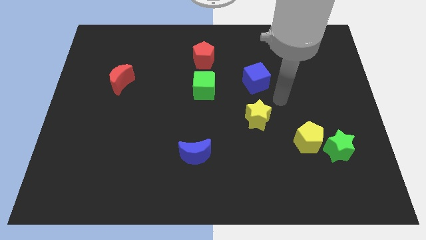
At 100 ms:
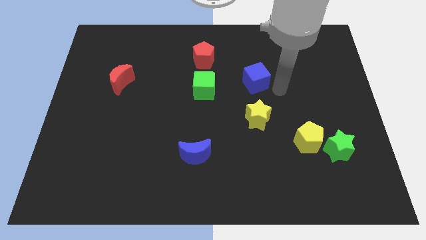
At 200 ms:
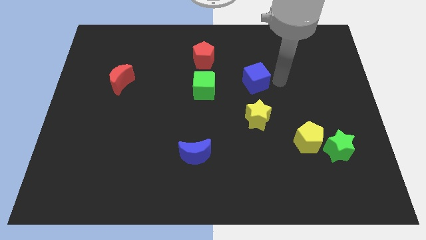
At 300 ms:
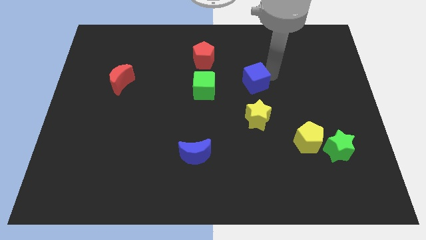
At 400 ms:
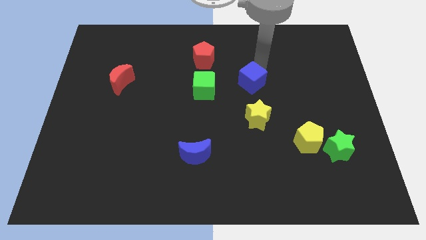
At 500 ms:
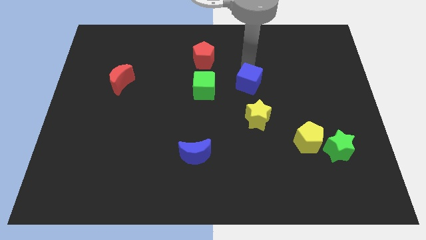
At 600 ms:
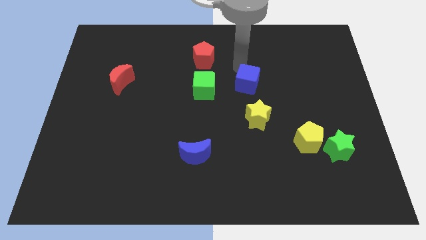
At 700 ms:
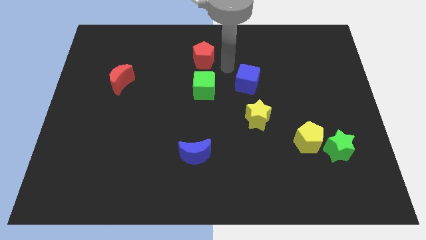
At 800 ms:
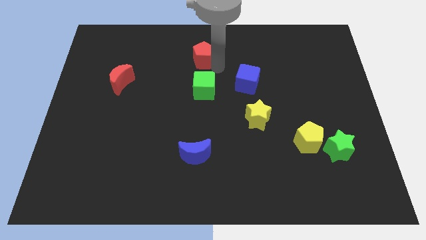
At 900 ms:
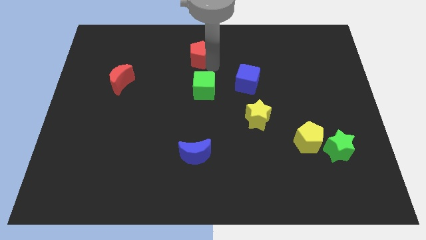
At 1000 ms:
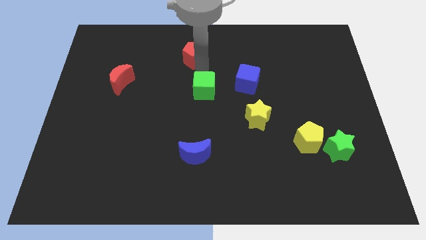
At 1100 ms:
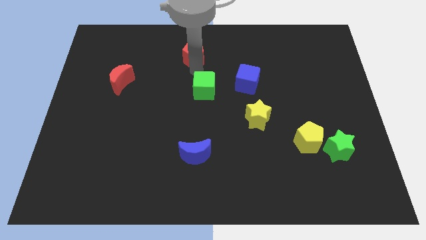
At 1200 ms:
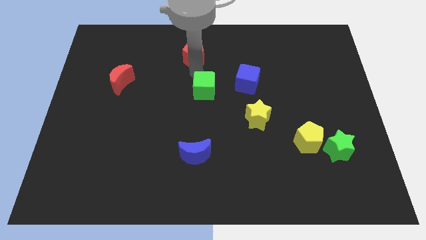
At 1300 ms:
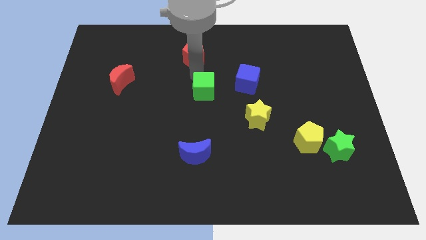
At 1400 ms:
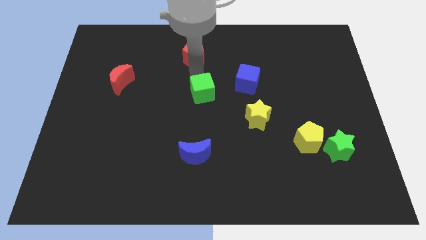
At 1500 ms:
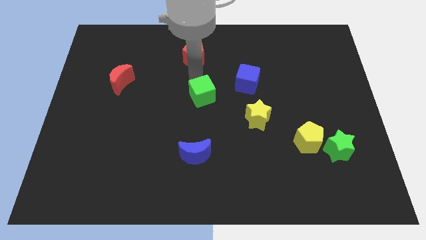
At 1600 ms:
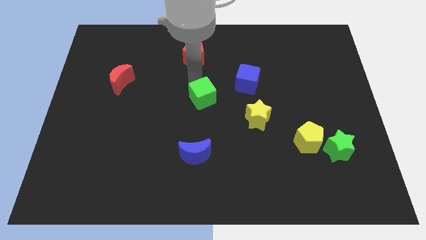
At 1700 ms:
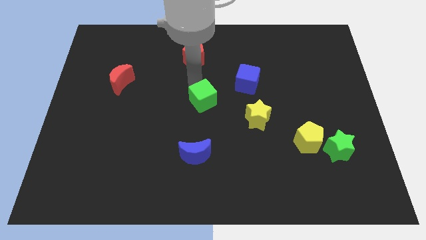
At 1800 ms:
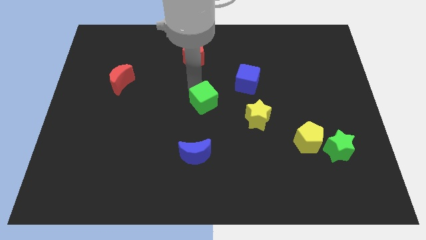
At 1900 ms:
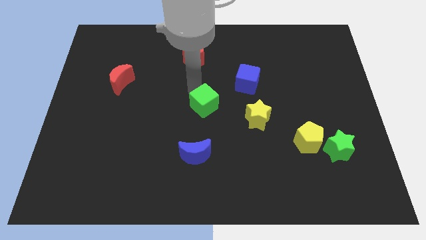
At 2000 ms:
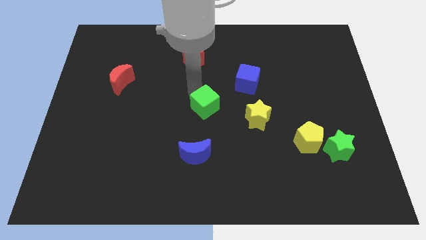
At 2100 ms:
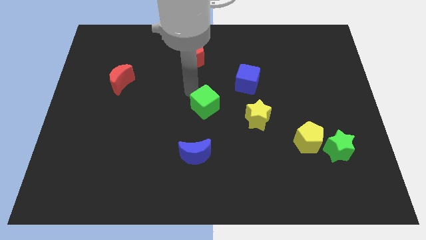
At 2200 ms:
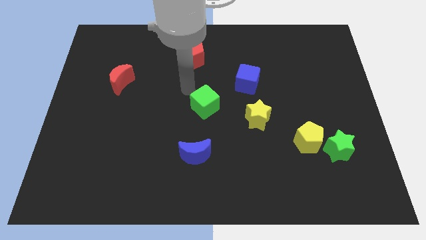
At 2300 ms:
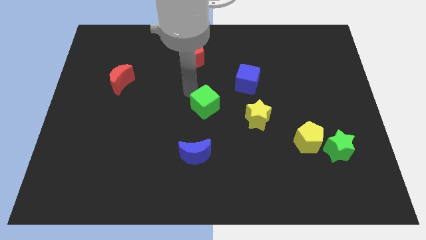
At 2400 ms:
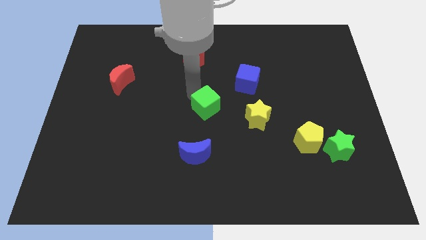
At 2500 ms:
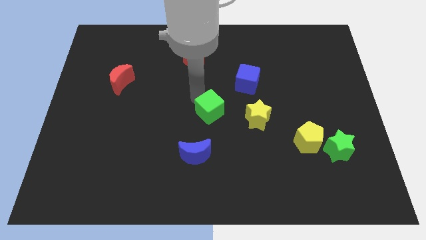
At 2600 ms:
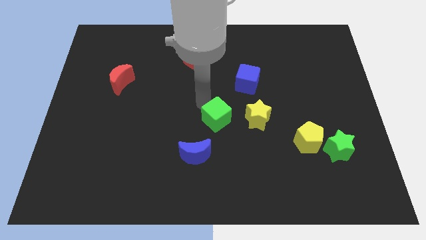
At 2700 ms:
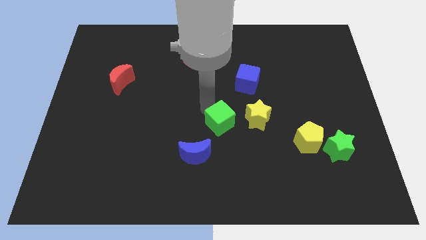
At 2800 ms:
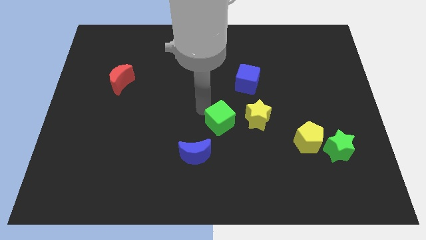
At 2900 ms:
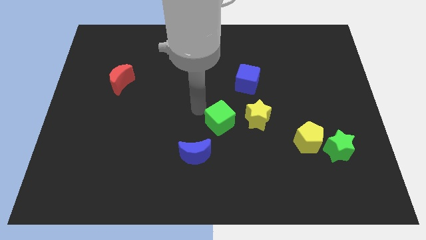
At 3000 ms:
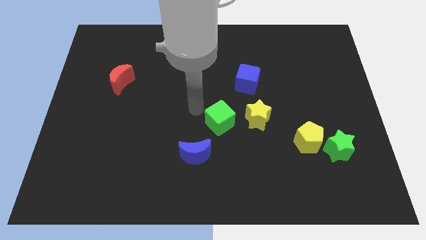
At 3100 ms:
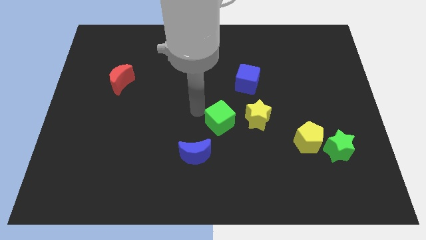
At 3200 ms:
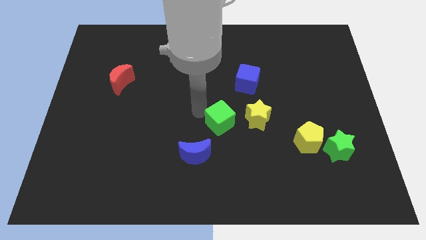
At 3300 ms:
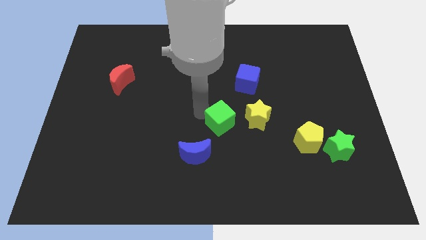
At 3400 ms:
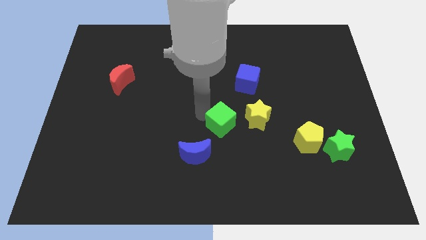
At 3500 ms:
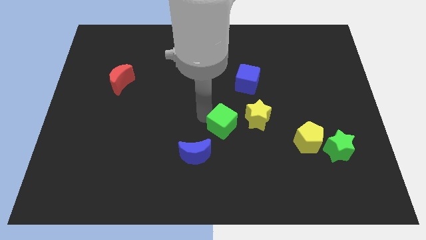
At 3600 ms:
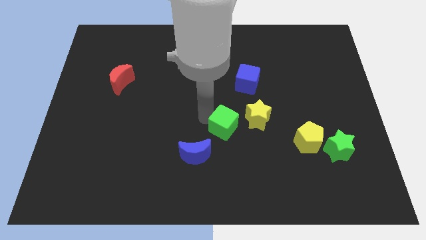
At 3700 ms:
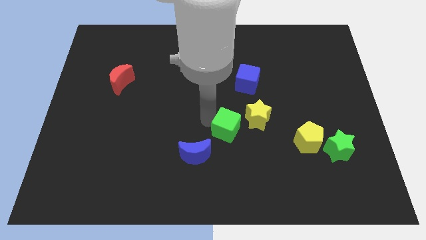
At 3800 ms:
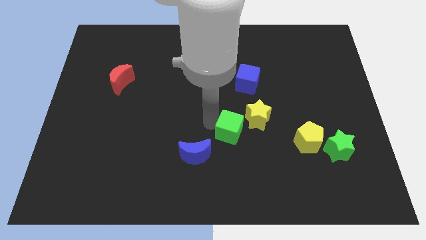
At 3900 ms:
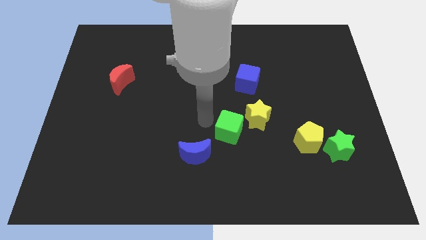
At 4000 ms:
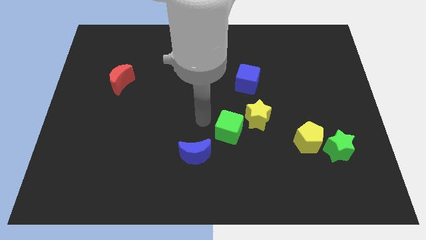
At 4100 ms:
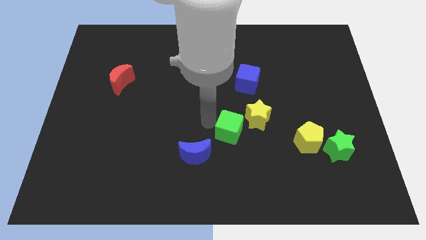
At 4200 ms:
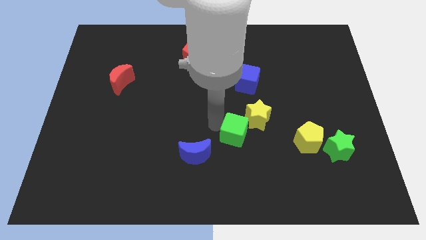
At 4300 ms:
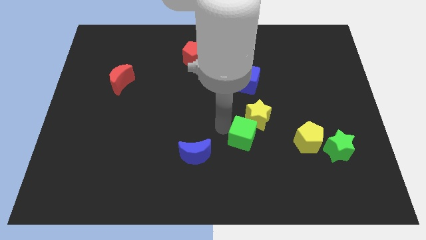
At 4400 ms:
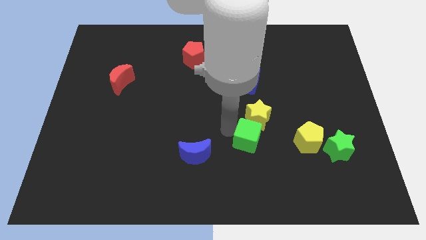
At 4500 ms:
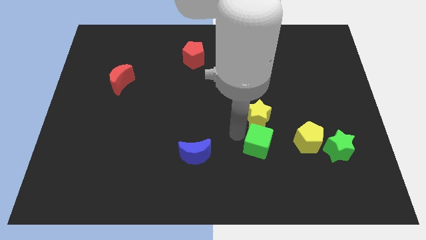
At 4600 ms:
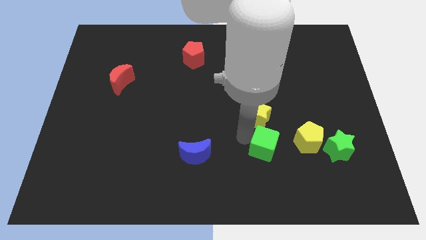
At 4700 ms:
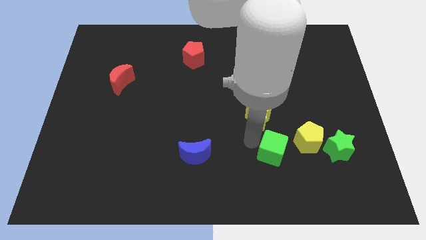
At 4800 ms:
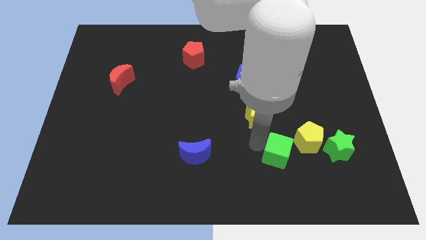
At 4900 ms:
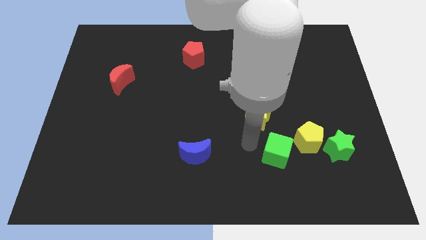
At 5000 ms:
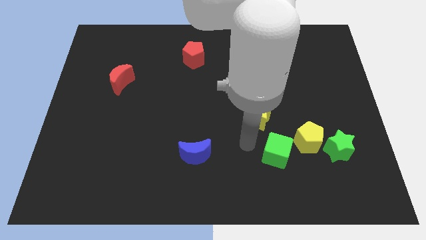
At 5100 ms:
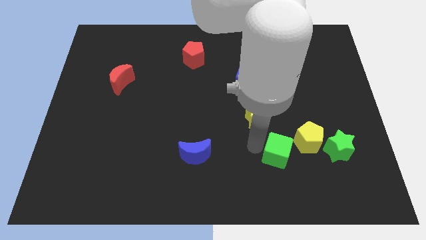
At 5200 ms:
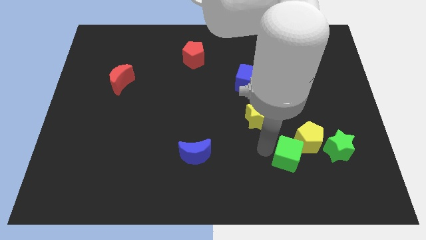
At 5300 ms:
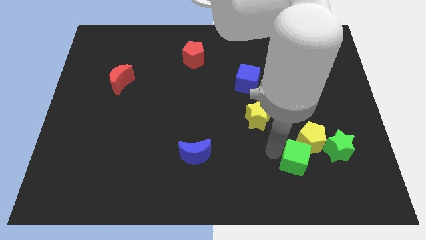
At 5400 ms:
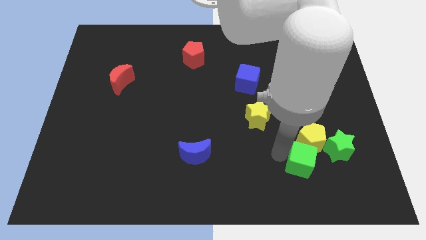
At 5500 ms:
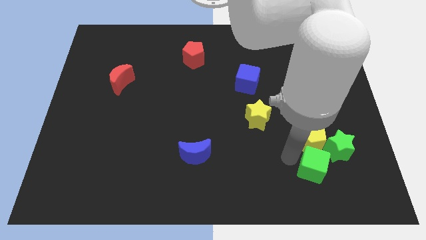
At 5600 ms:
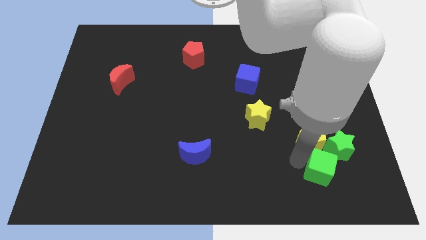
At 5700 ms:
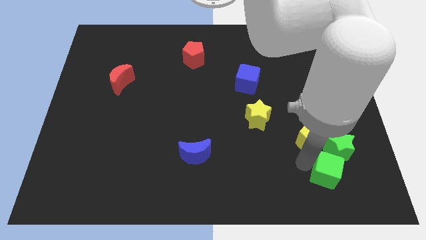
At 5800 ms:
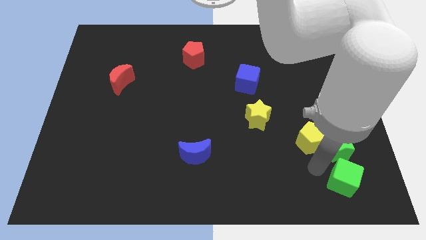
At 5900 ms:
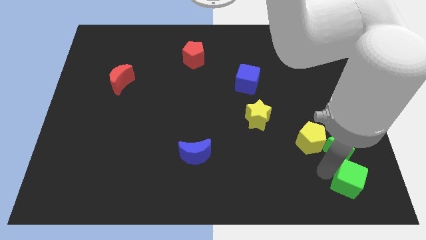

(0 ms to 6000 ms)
move the green cube to the bottom right corner
